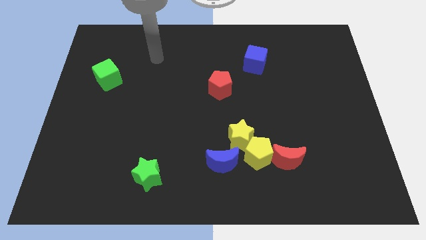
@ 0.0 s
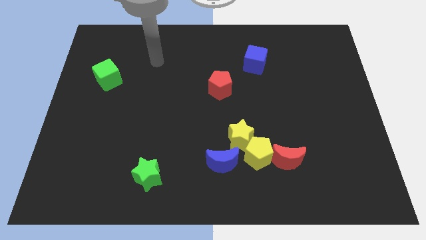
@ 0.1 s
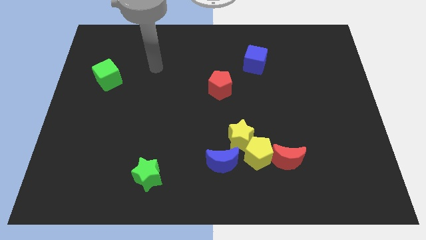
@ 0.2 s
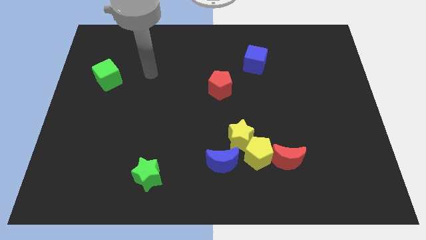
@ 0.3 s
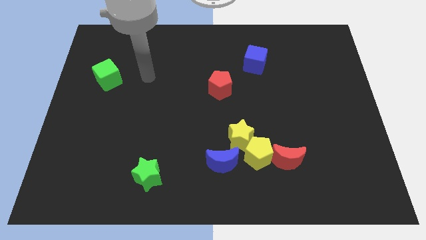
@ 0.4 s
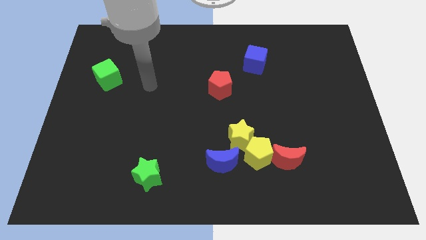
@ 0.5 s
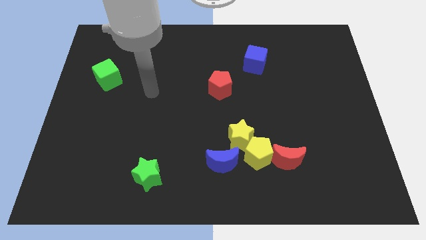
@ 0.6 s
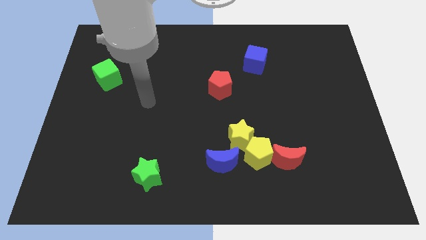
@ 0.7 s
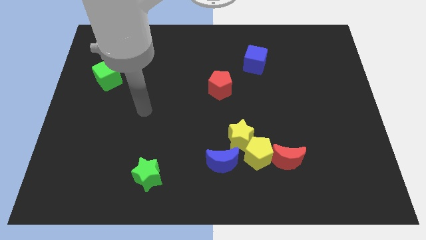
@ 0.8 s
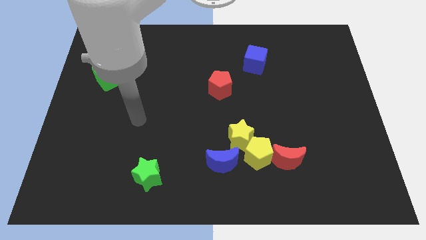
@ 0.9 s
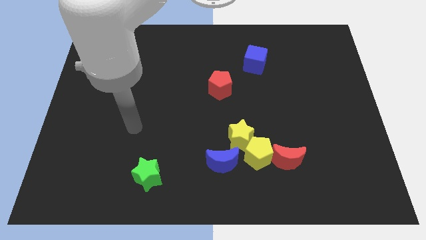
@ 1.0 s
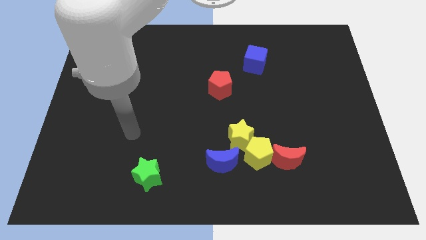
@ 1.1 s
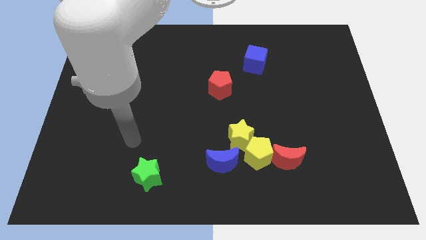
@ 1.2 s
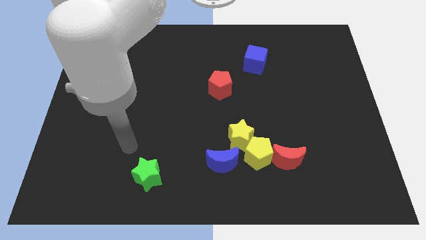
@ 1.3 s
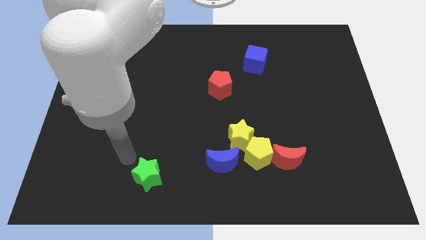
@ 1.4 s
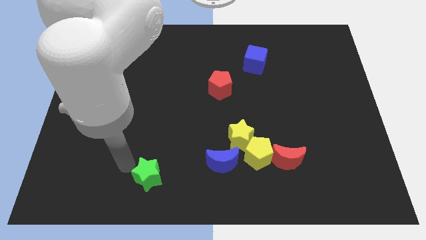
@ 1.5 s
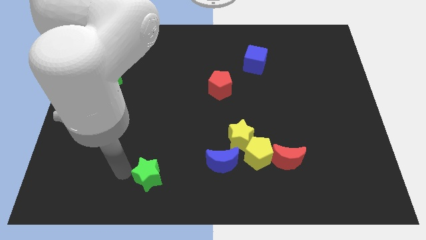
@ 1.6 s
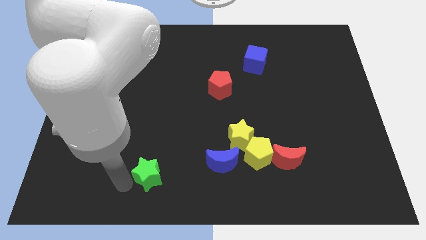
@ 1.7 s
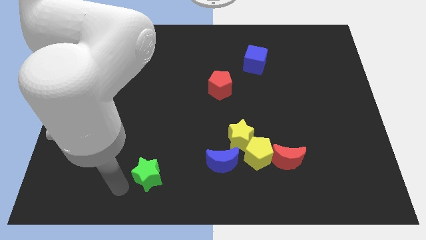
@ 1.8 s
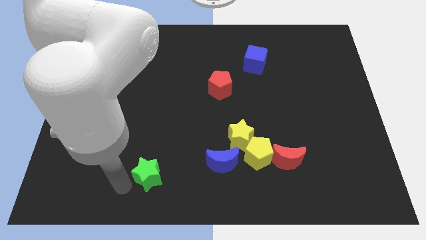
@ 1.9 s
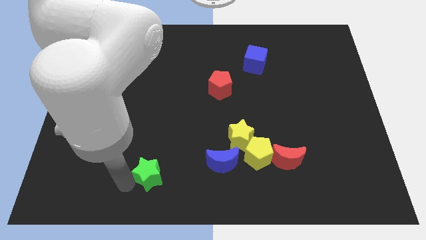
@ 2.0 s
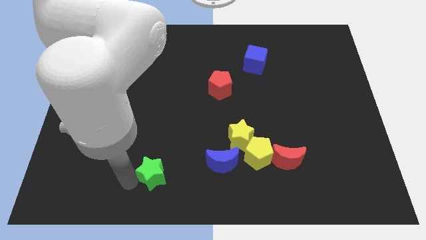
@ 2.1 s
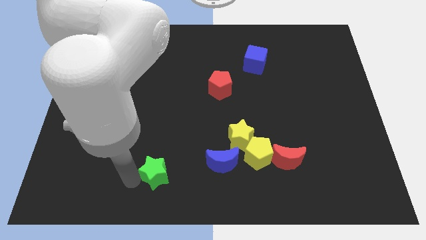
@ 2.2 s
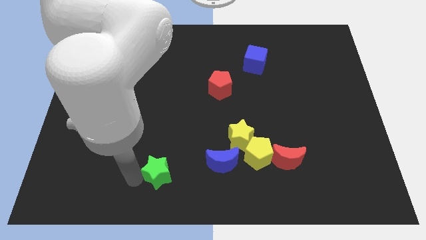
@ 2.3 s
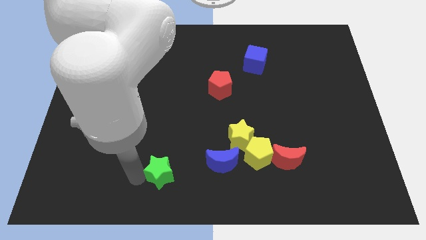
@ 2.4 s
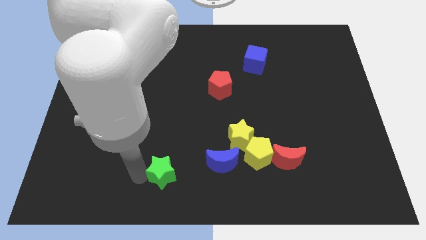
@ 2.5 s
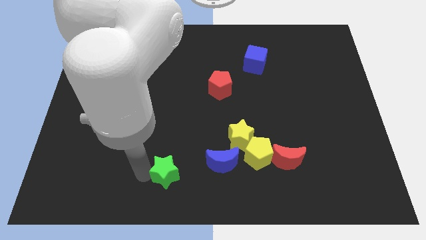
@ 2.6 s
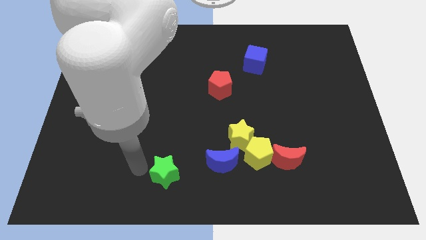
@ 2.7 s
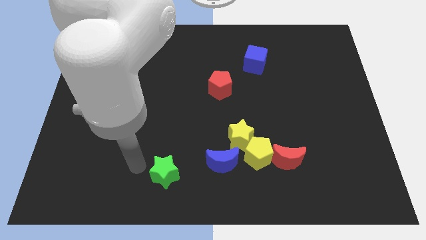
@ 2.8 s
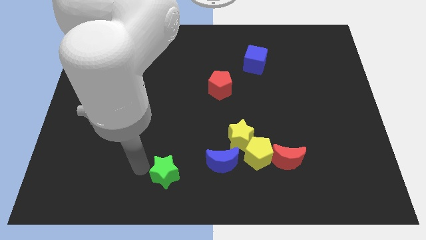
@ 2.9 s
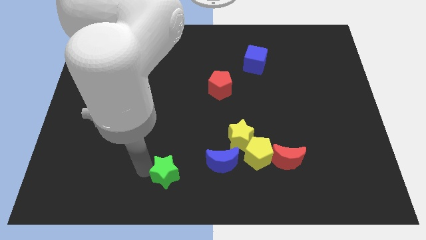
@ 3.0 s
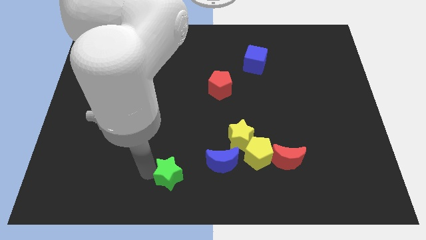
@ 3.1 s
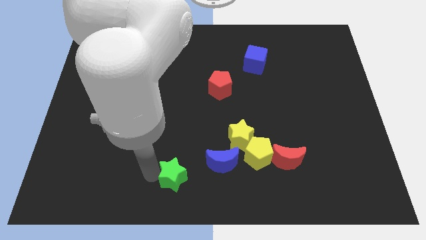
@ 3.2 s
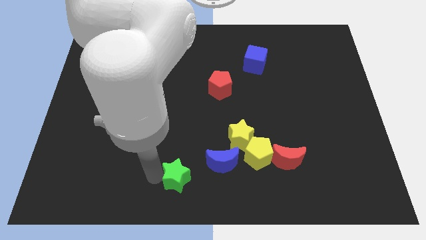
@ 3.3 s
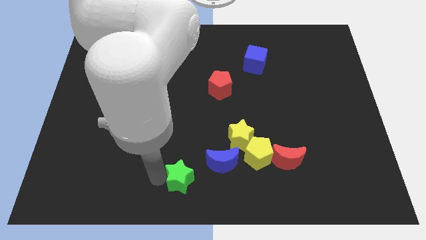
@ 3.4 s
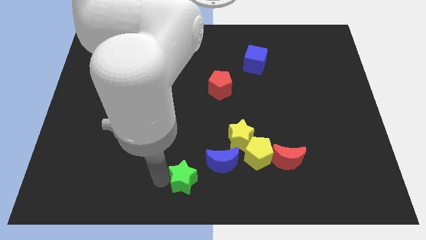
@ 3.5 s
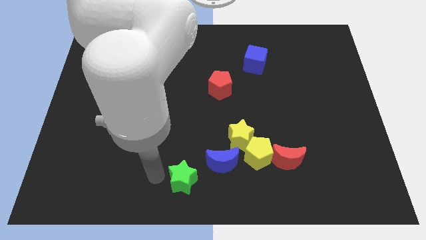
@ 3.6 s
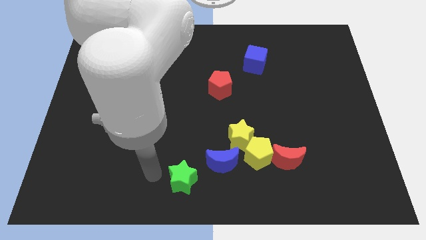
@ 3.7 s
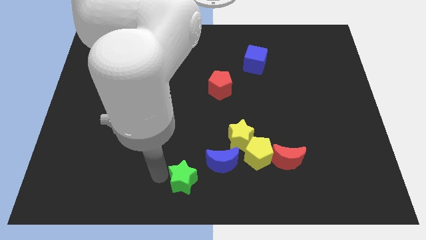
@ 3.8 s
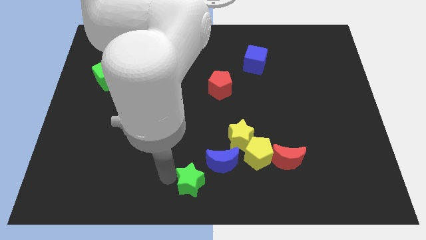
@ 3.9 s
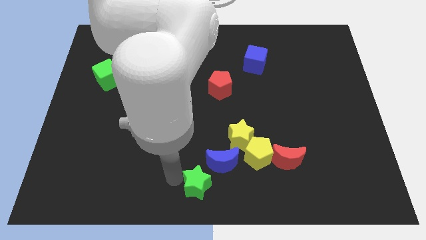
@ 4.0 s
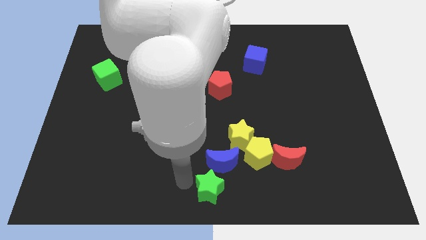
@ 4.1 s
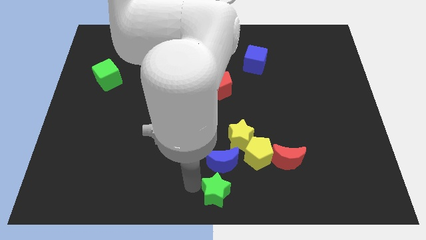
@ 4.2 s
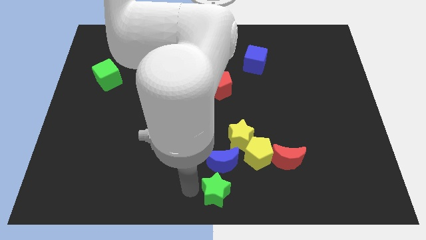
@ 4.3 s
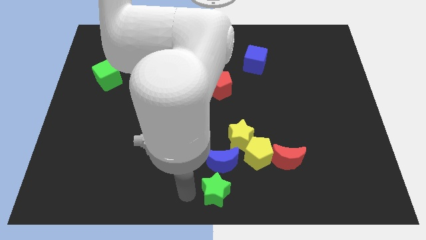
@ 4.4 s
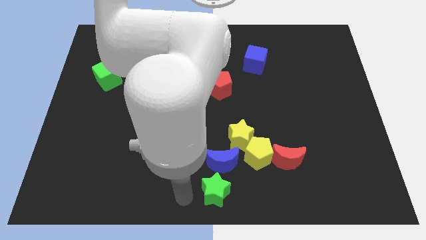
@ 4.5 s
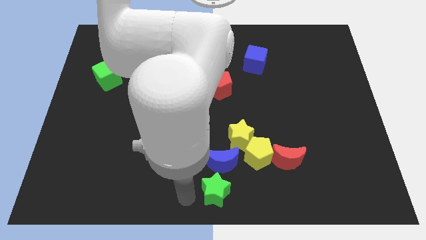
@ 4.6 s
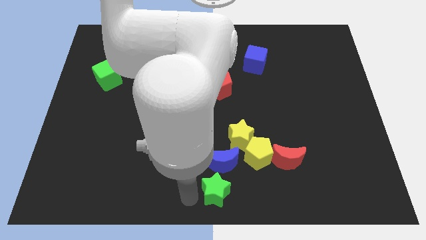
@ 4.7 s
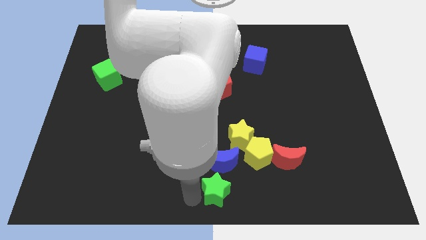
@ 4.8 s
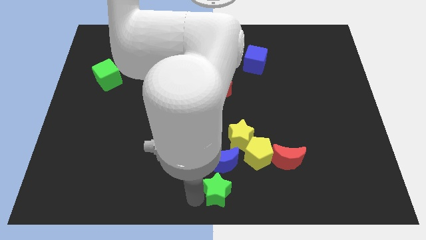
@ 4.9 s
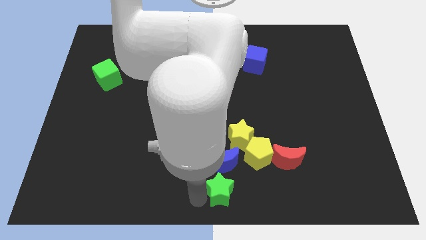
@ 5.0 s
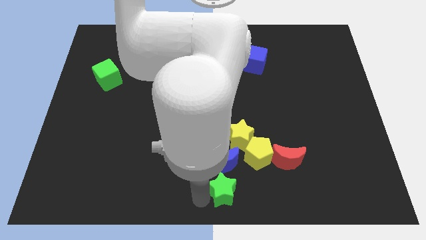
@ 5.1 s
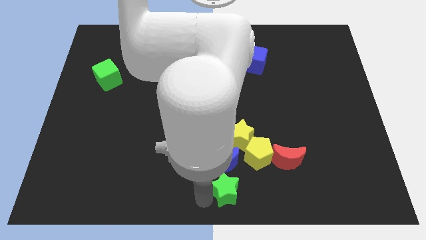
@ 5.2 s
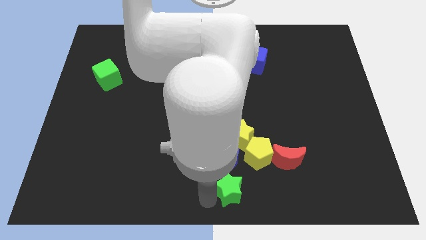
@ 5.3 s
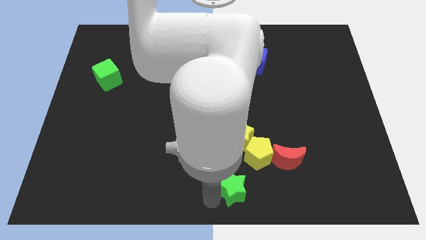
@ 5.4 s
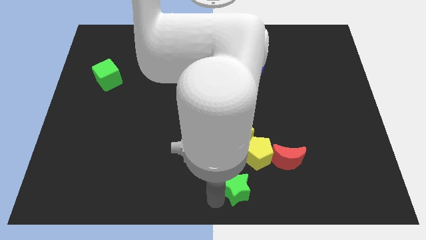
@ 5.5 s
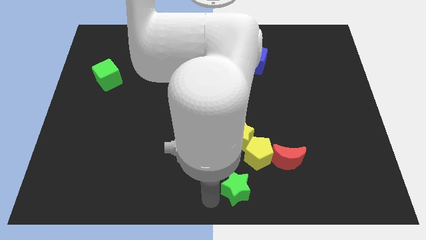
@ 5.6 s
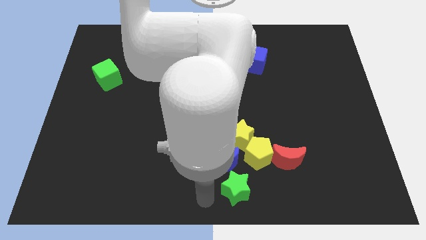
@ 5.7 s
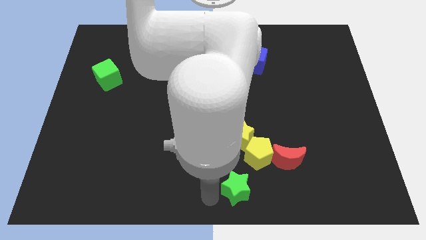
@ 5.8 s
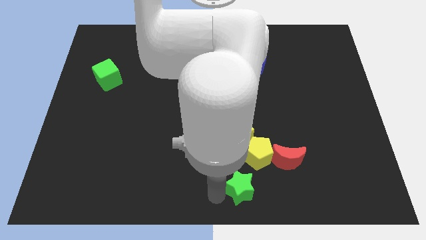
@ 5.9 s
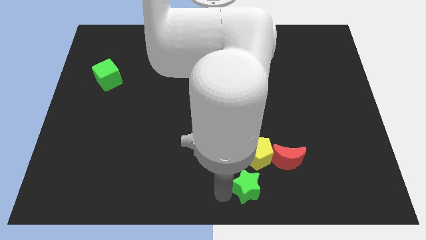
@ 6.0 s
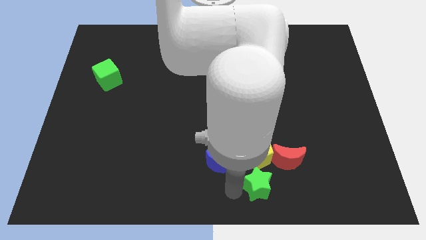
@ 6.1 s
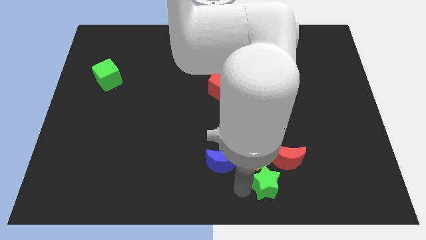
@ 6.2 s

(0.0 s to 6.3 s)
push the green star diagonally down and to the right of the yellow pentagon

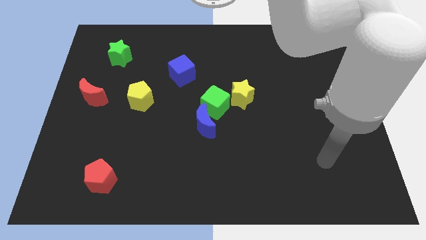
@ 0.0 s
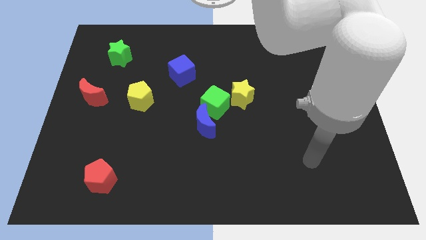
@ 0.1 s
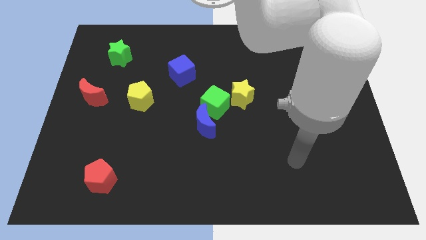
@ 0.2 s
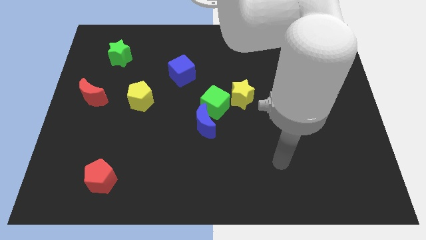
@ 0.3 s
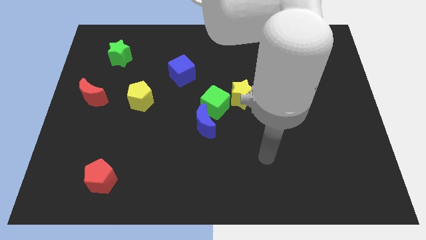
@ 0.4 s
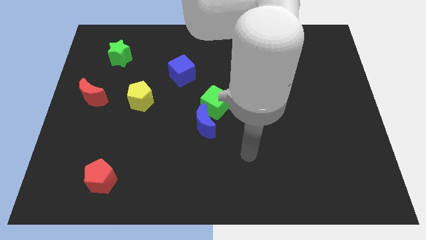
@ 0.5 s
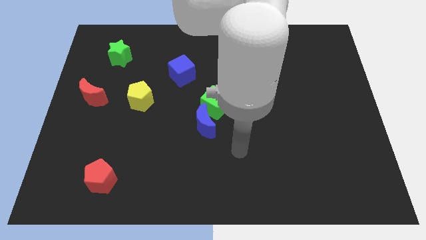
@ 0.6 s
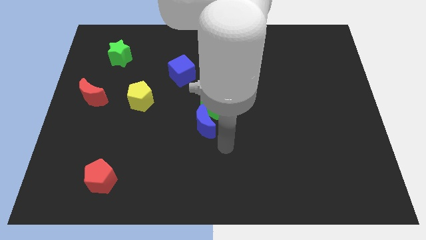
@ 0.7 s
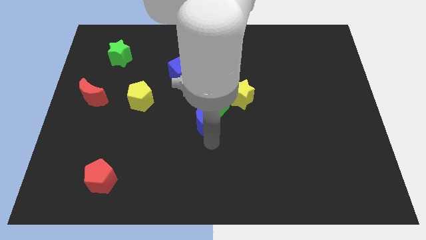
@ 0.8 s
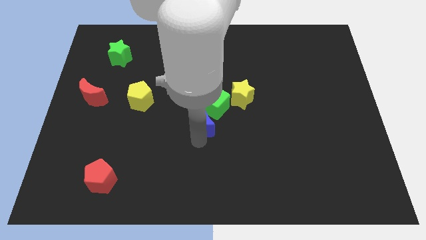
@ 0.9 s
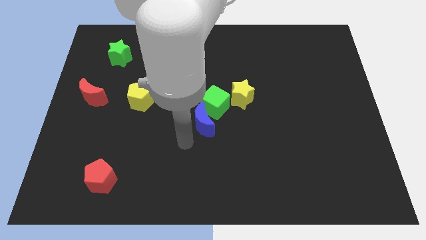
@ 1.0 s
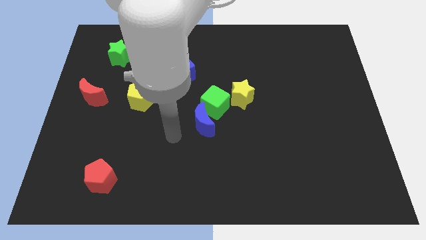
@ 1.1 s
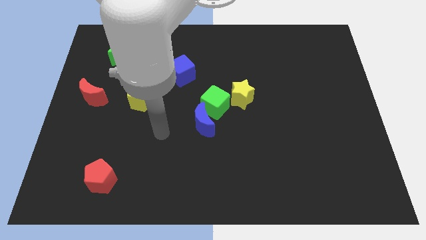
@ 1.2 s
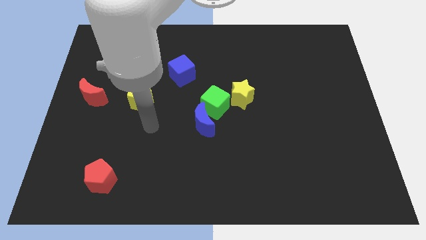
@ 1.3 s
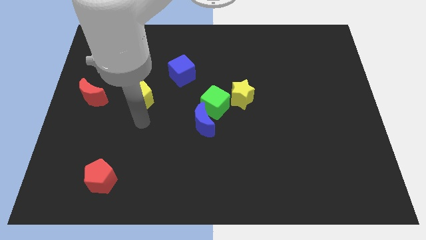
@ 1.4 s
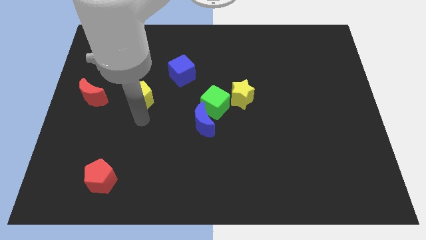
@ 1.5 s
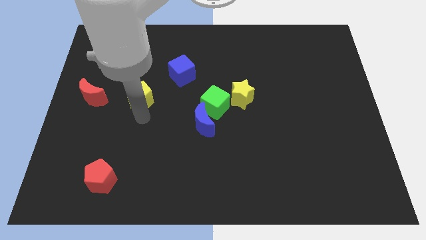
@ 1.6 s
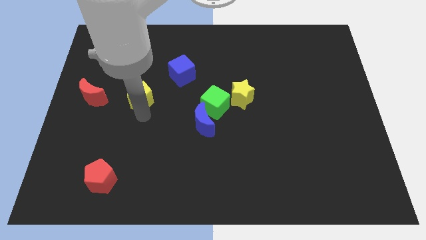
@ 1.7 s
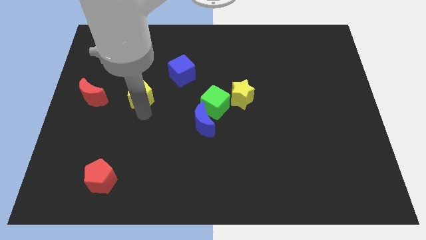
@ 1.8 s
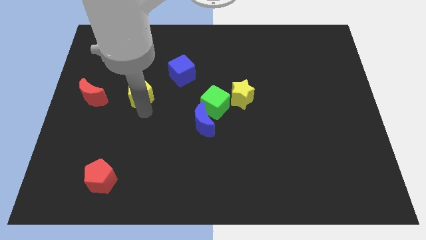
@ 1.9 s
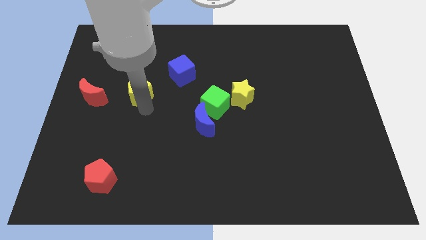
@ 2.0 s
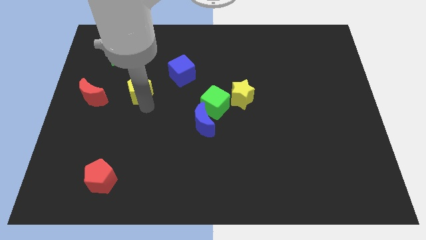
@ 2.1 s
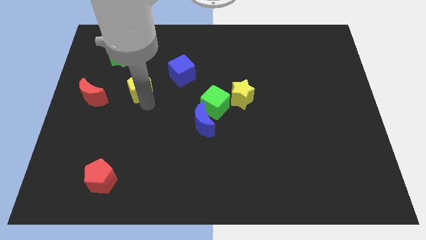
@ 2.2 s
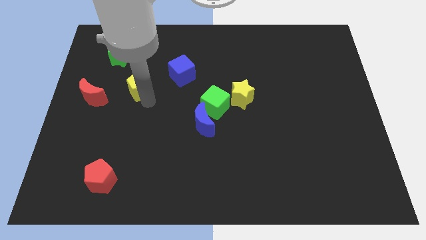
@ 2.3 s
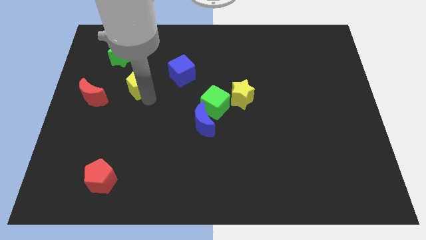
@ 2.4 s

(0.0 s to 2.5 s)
move the yellow pentagon left of the blue cube
